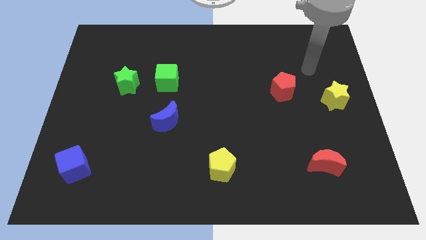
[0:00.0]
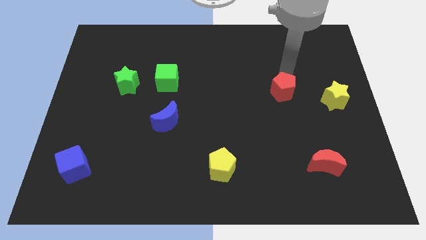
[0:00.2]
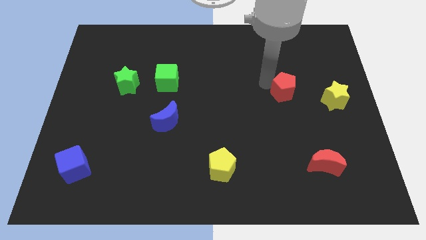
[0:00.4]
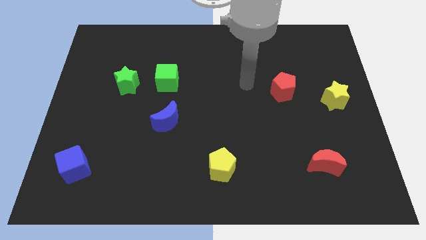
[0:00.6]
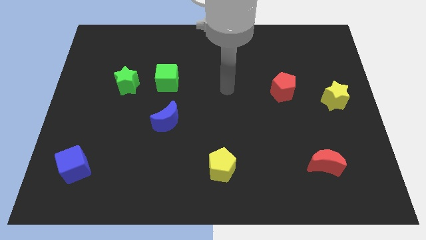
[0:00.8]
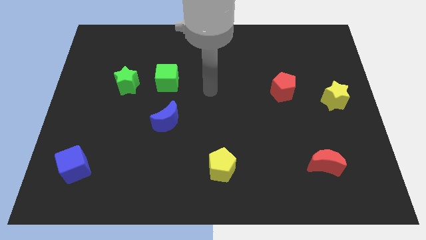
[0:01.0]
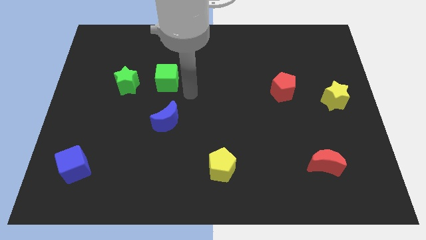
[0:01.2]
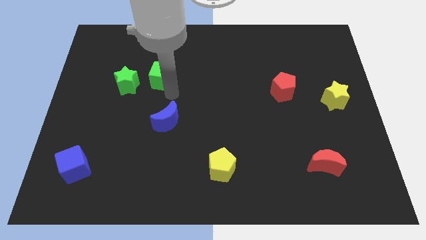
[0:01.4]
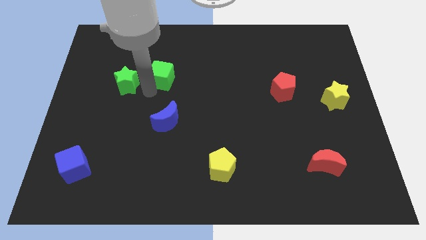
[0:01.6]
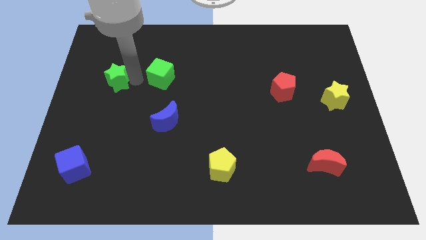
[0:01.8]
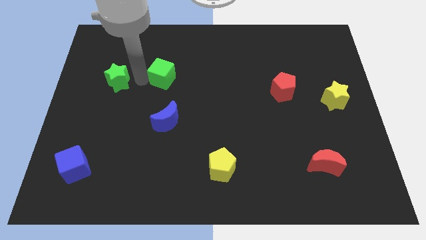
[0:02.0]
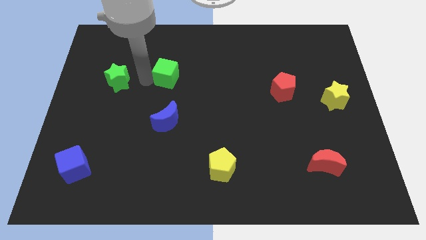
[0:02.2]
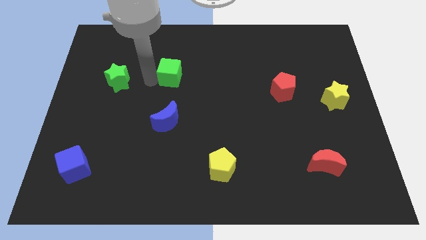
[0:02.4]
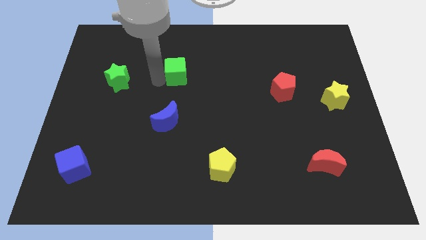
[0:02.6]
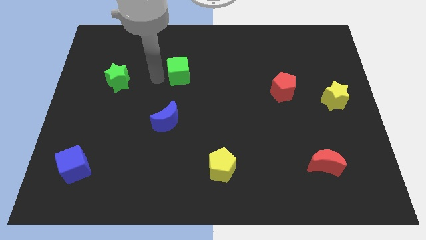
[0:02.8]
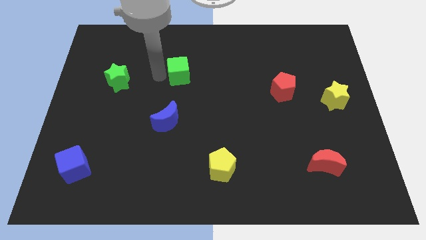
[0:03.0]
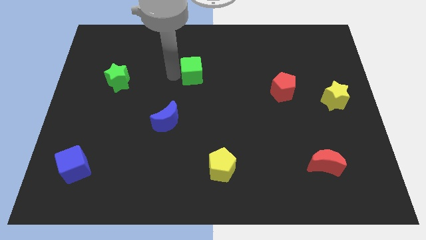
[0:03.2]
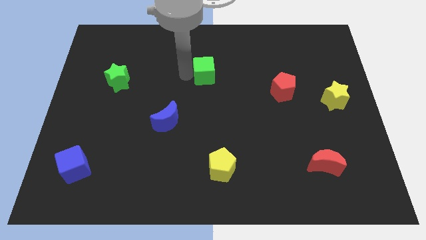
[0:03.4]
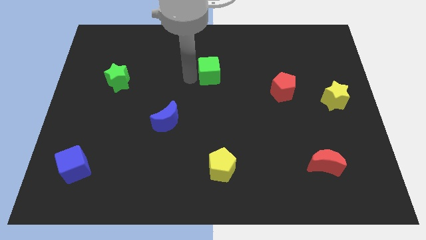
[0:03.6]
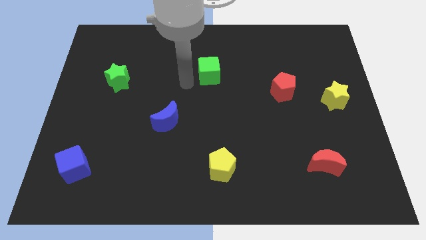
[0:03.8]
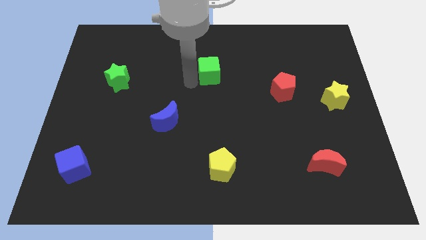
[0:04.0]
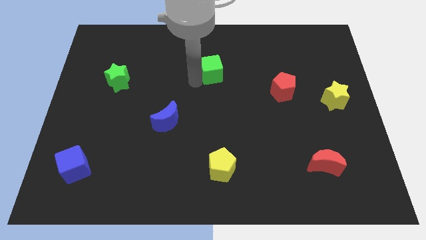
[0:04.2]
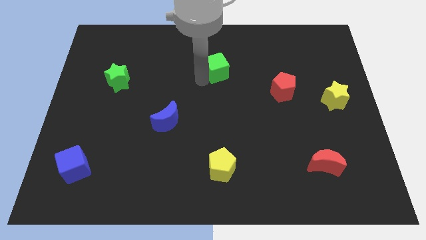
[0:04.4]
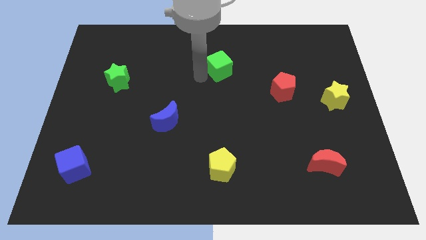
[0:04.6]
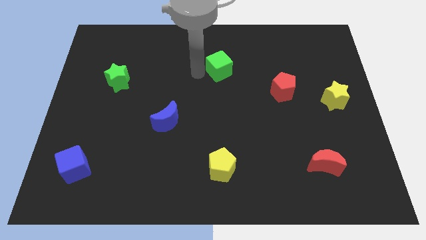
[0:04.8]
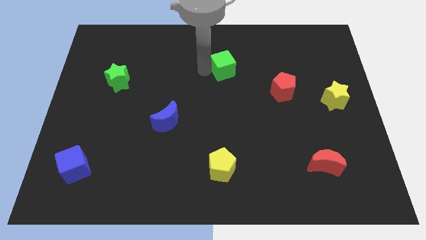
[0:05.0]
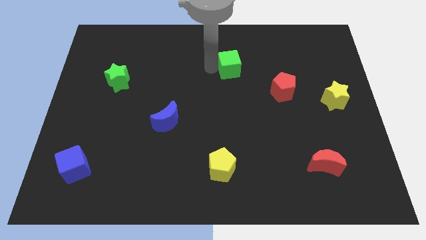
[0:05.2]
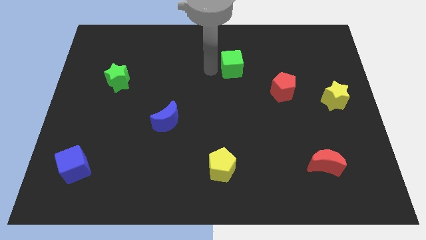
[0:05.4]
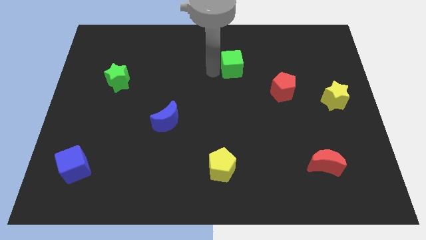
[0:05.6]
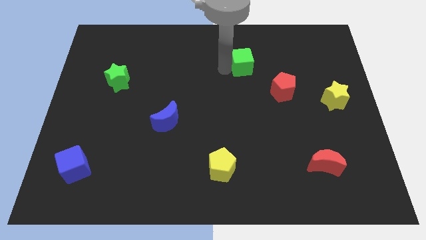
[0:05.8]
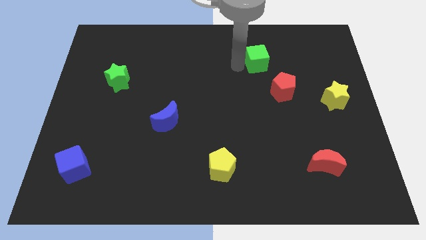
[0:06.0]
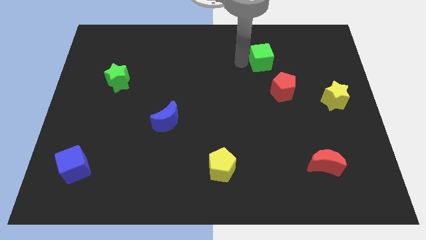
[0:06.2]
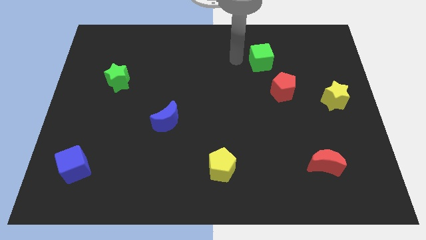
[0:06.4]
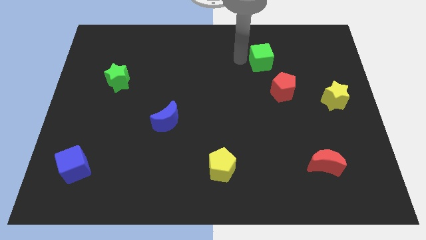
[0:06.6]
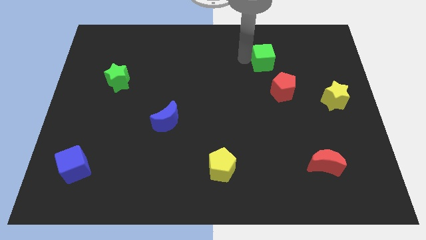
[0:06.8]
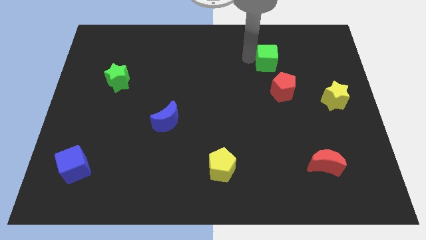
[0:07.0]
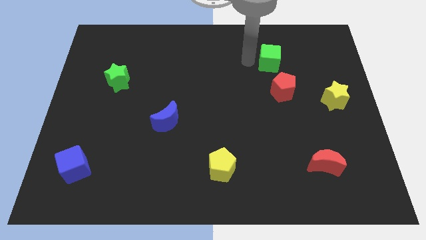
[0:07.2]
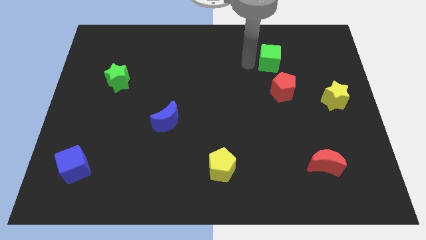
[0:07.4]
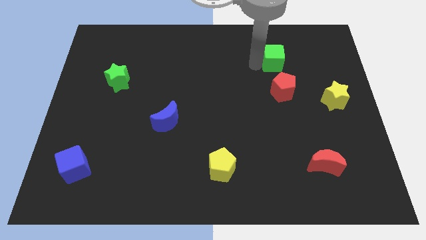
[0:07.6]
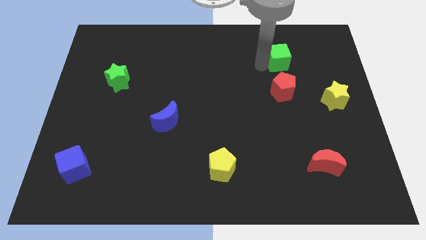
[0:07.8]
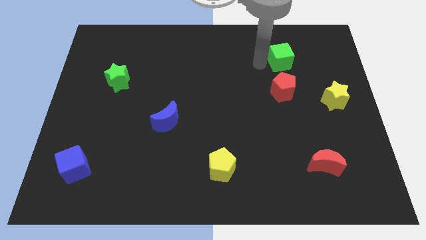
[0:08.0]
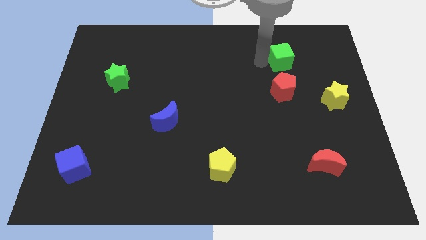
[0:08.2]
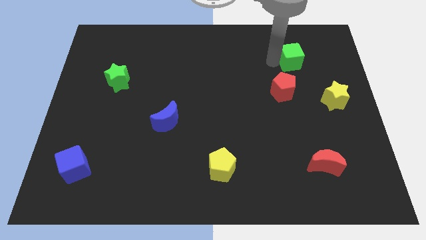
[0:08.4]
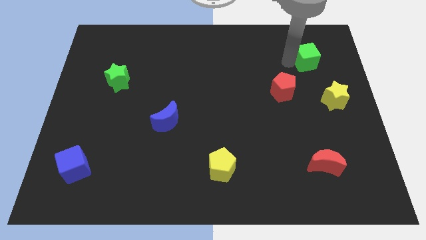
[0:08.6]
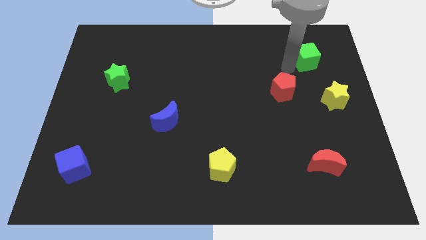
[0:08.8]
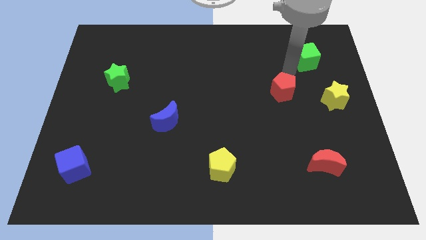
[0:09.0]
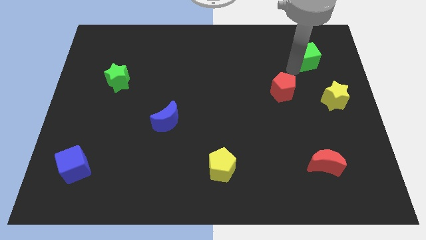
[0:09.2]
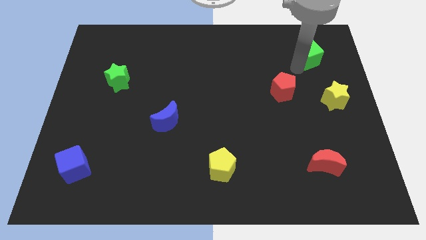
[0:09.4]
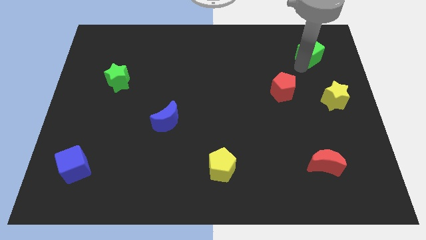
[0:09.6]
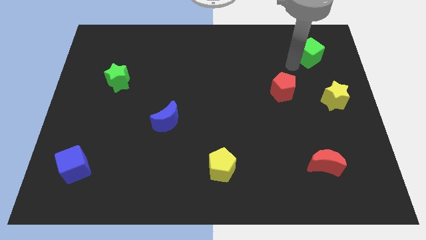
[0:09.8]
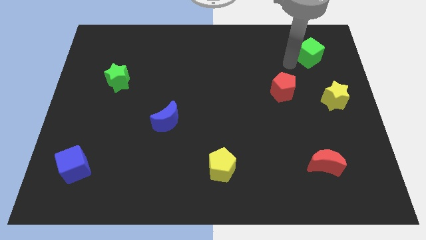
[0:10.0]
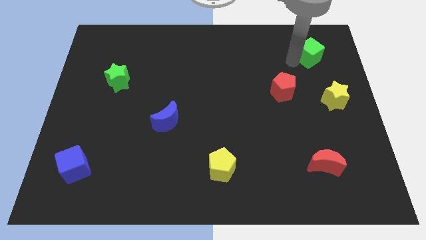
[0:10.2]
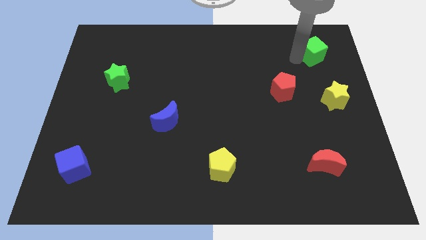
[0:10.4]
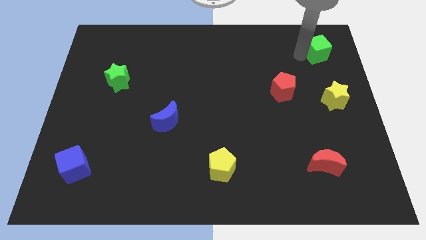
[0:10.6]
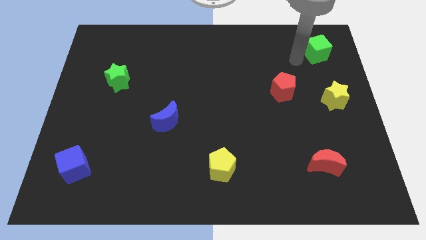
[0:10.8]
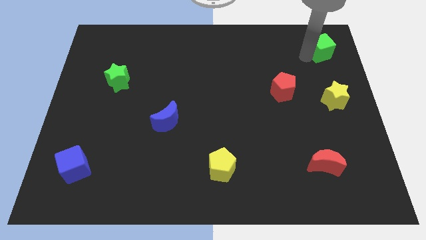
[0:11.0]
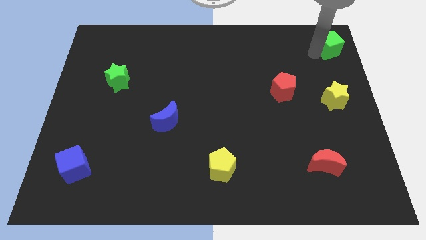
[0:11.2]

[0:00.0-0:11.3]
move the green cube to the upper right corner

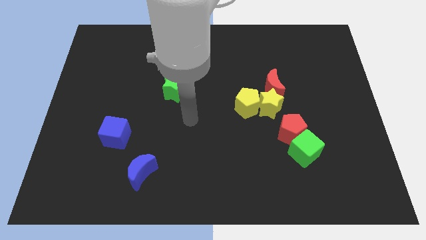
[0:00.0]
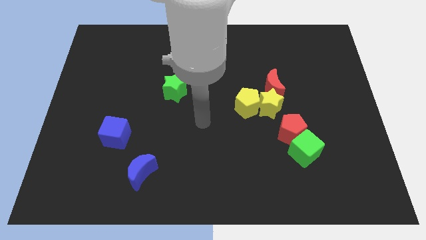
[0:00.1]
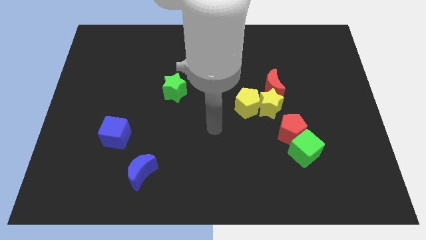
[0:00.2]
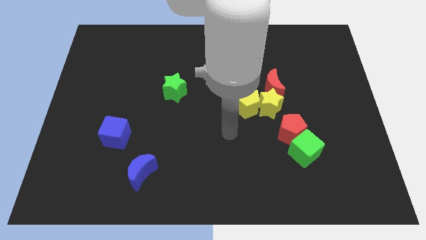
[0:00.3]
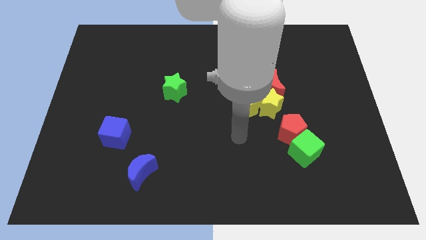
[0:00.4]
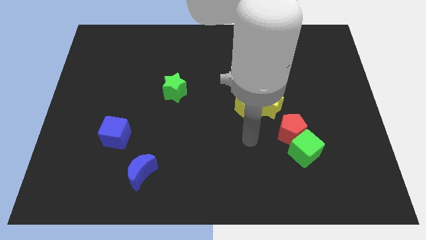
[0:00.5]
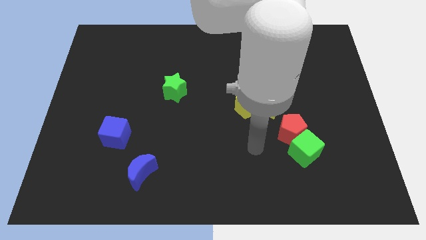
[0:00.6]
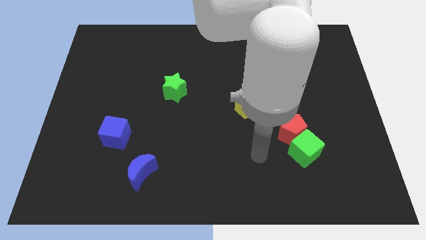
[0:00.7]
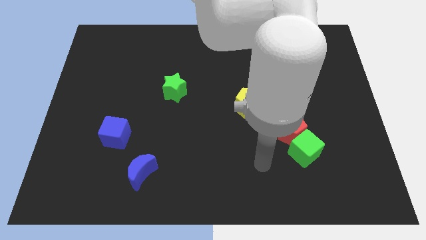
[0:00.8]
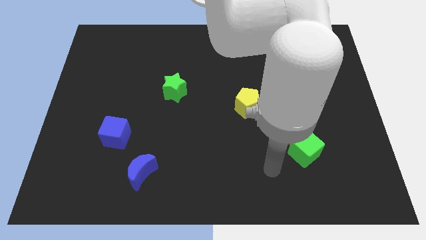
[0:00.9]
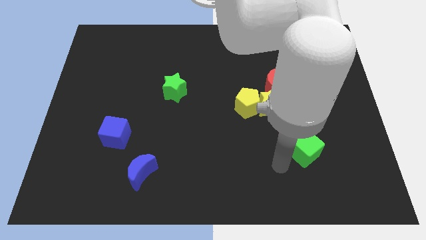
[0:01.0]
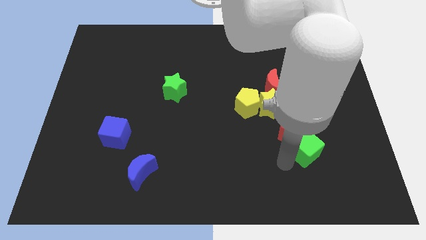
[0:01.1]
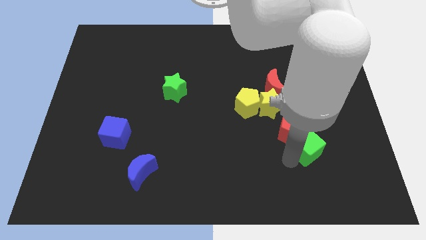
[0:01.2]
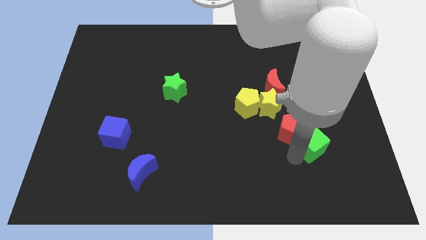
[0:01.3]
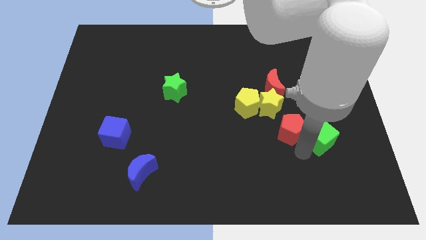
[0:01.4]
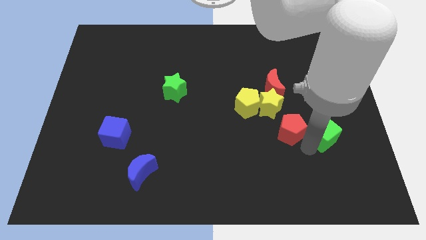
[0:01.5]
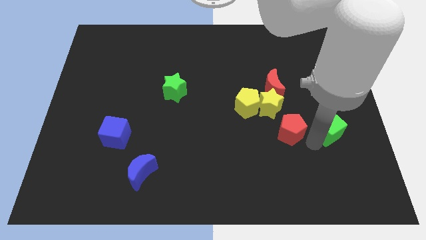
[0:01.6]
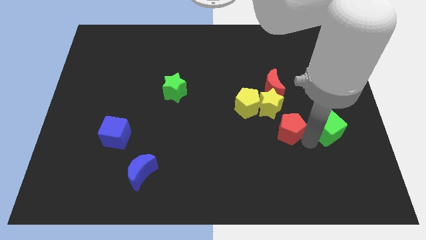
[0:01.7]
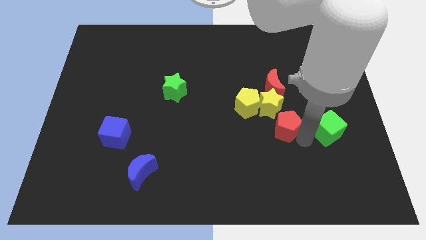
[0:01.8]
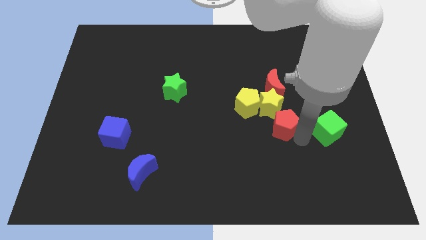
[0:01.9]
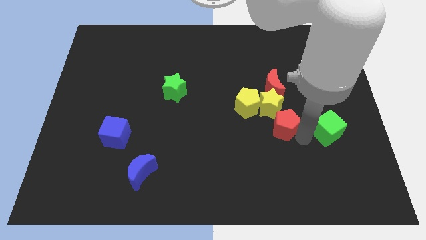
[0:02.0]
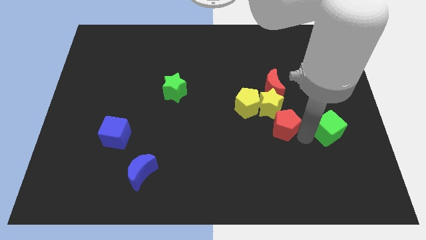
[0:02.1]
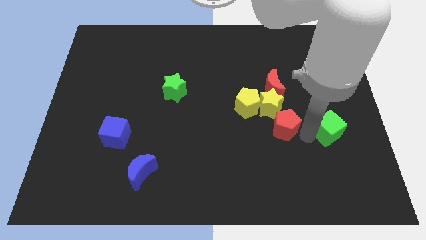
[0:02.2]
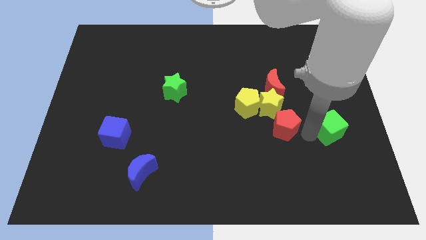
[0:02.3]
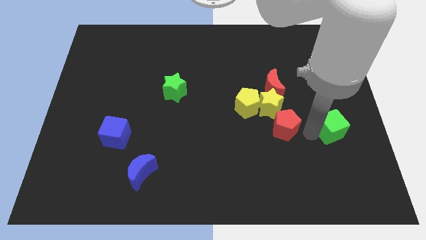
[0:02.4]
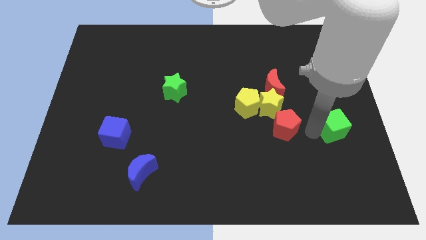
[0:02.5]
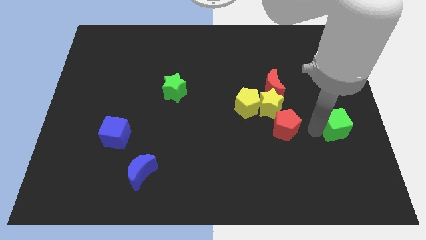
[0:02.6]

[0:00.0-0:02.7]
move the green cube to the right side of the board
